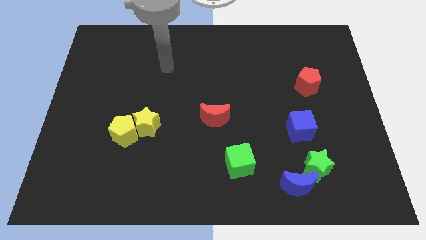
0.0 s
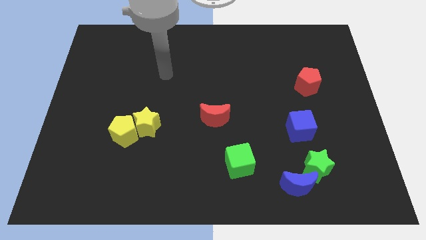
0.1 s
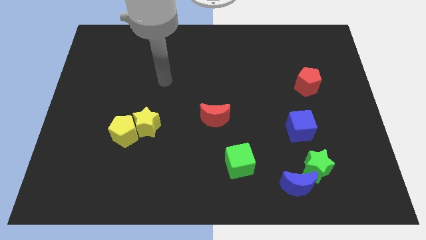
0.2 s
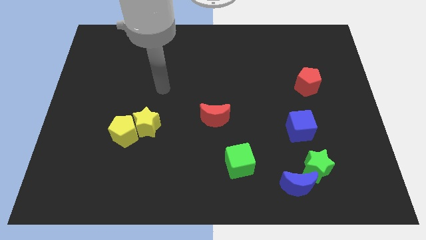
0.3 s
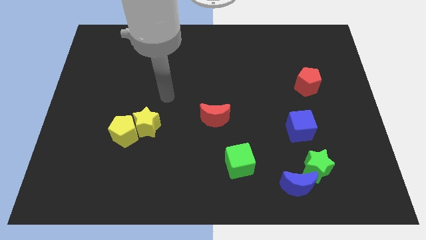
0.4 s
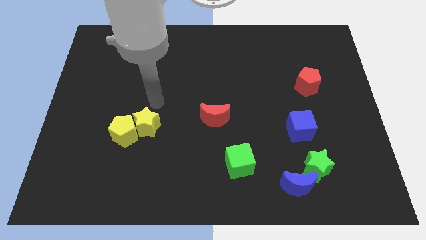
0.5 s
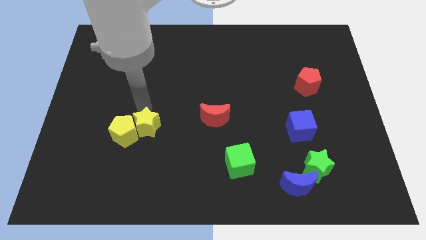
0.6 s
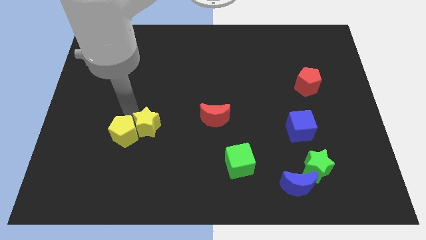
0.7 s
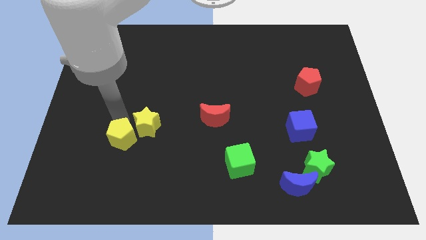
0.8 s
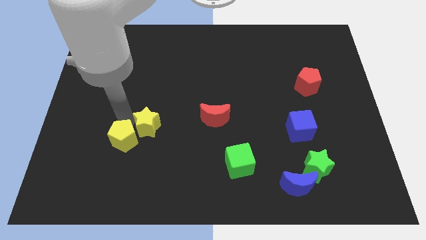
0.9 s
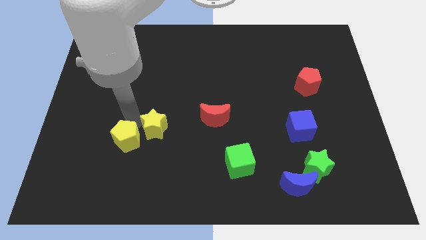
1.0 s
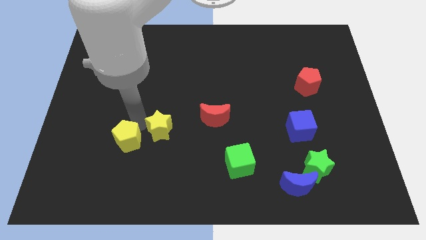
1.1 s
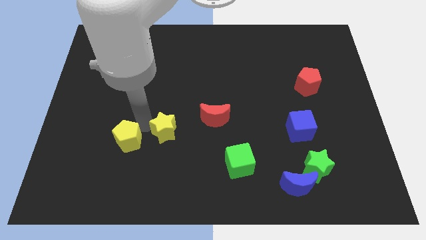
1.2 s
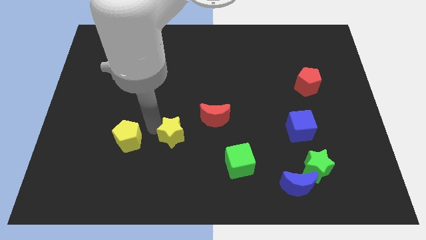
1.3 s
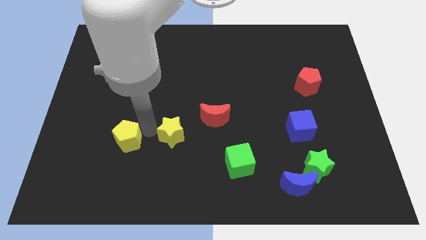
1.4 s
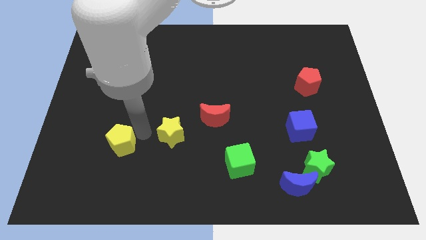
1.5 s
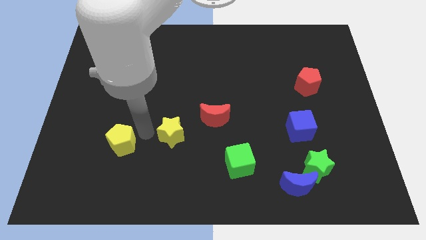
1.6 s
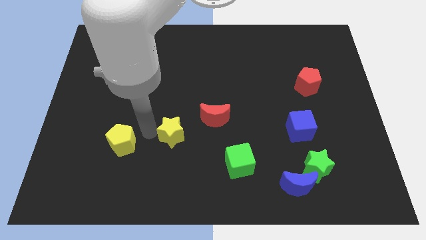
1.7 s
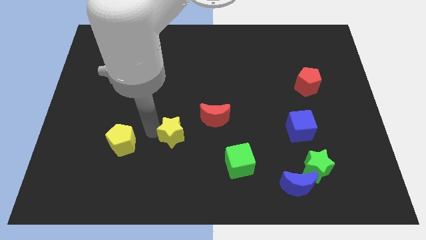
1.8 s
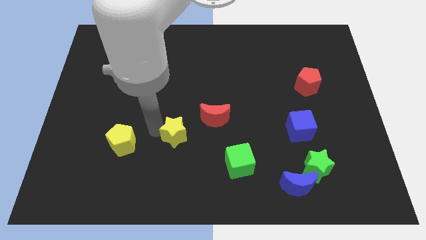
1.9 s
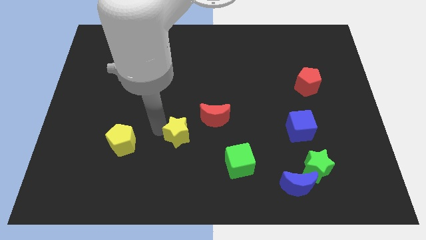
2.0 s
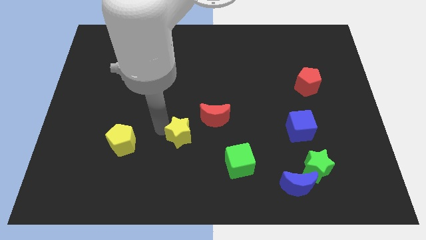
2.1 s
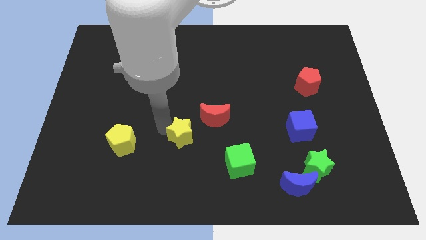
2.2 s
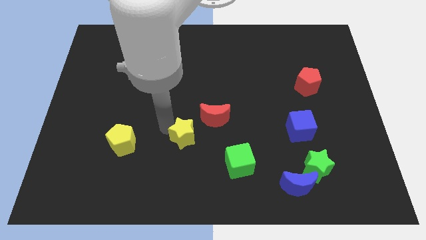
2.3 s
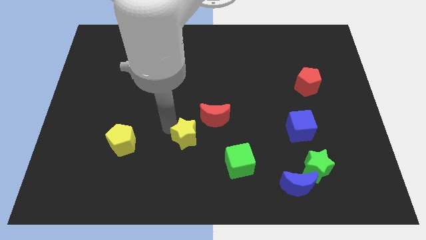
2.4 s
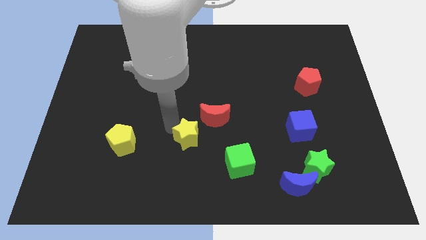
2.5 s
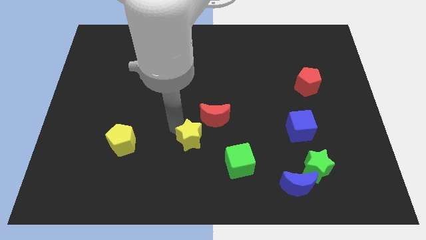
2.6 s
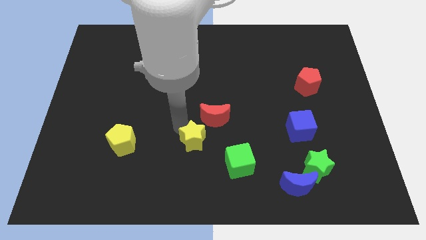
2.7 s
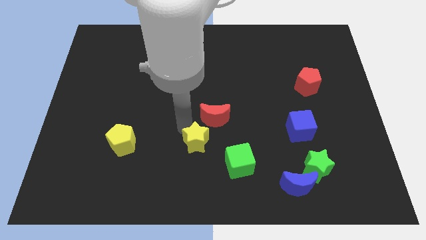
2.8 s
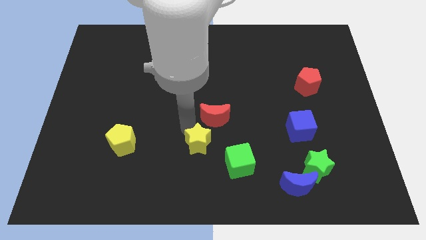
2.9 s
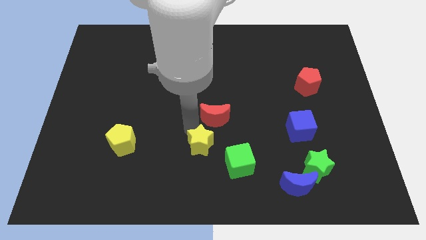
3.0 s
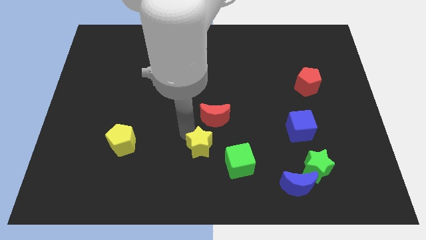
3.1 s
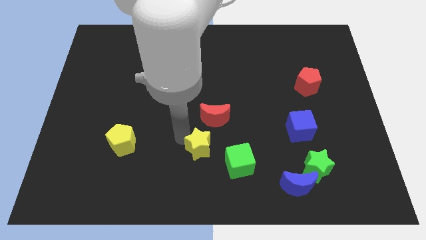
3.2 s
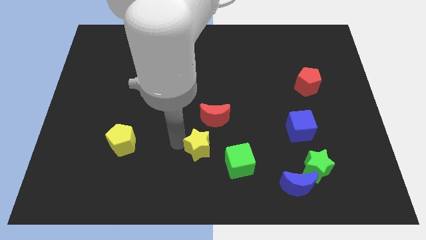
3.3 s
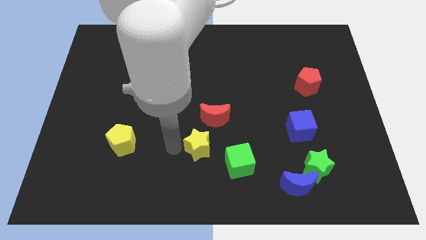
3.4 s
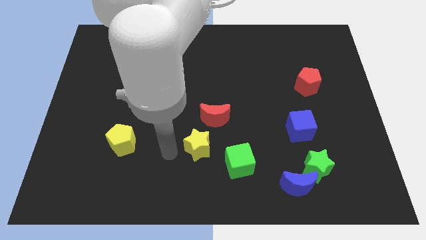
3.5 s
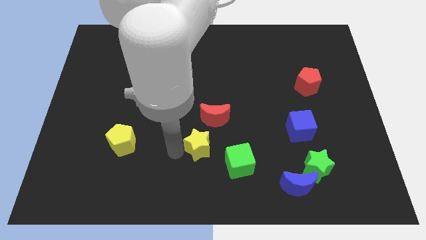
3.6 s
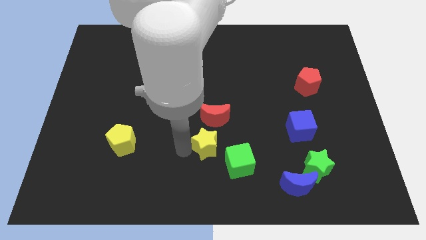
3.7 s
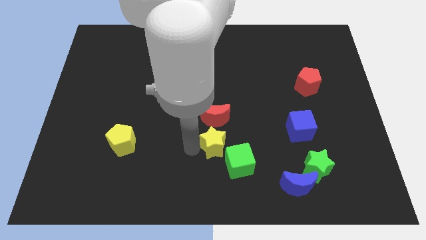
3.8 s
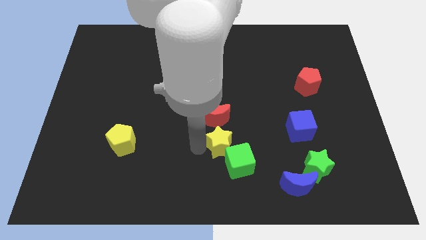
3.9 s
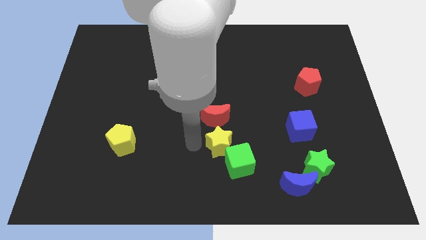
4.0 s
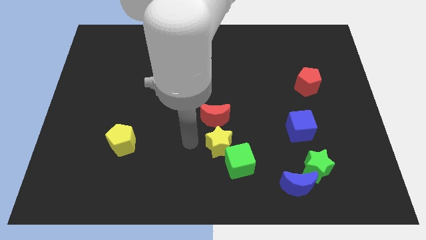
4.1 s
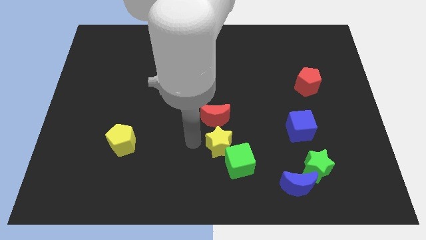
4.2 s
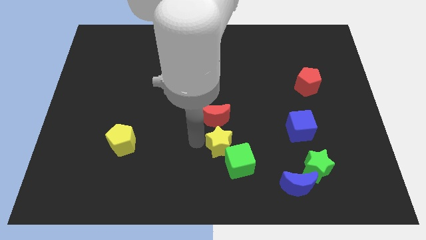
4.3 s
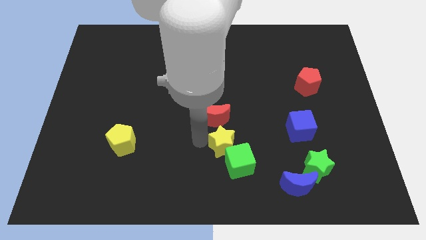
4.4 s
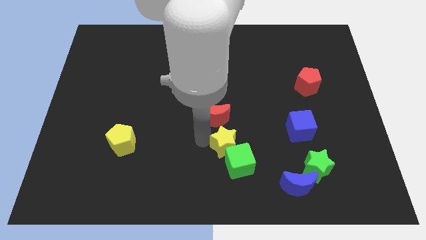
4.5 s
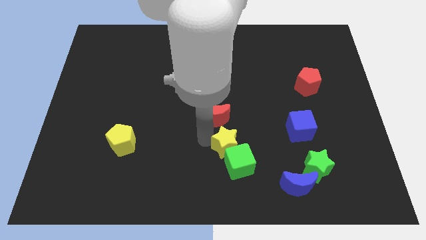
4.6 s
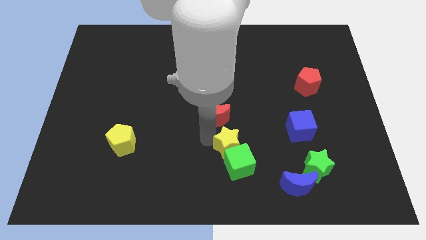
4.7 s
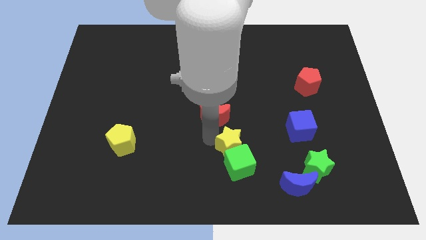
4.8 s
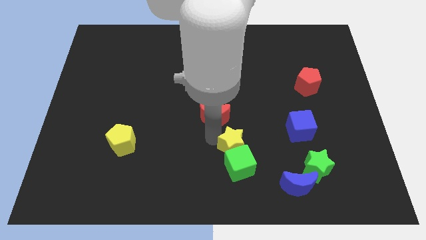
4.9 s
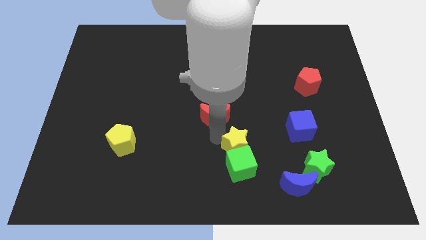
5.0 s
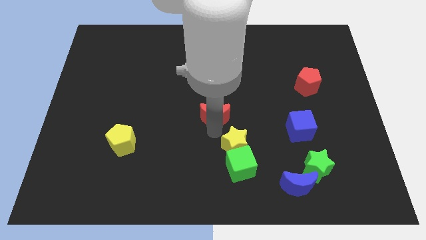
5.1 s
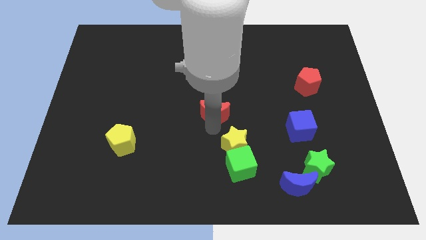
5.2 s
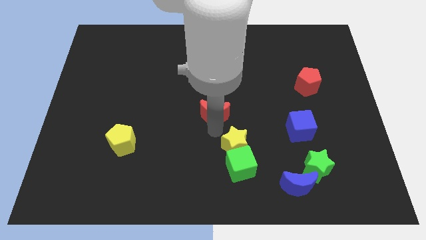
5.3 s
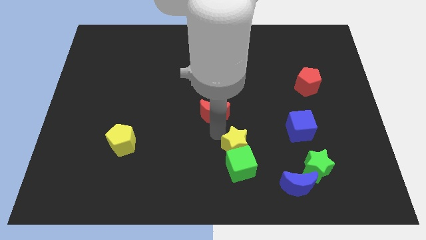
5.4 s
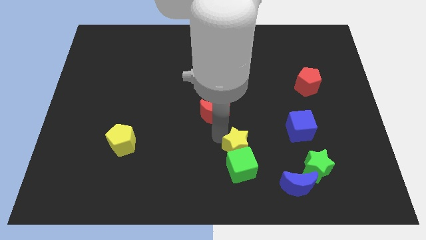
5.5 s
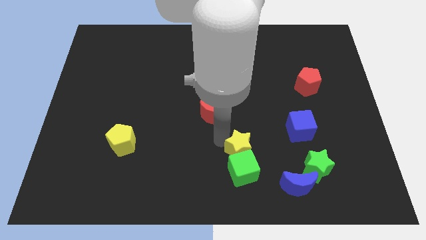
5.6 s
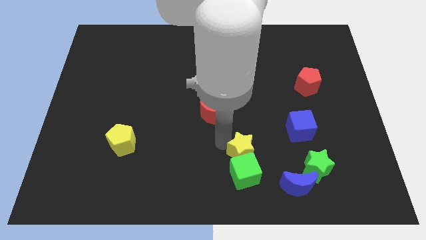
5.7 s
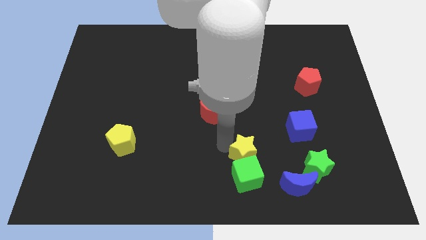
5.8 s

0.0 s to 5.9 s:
move the yellow star to the left of the green star

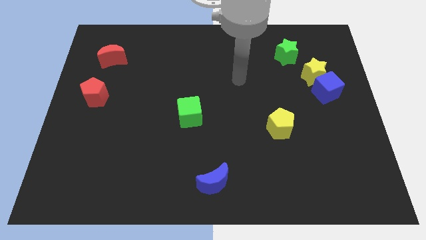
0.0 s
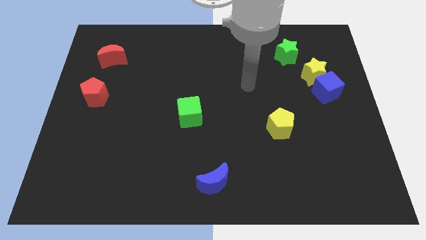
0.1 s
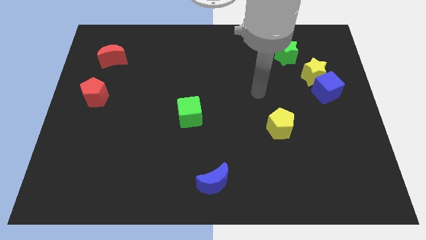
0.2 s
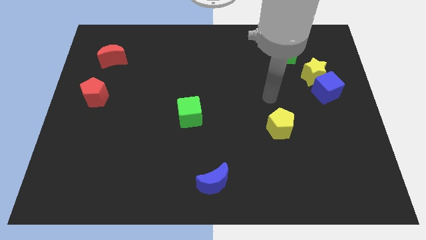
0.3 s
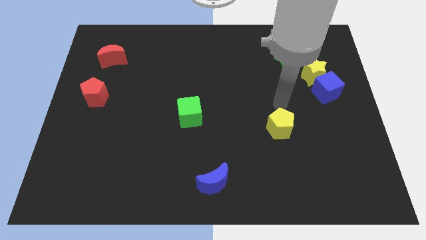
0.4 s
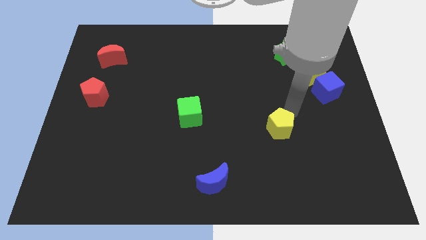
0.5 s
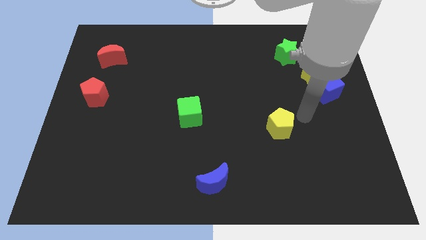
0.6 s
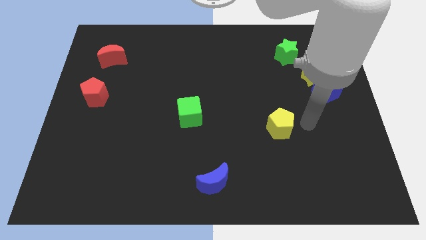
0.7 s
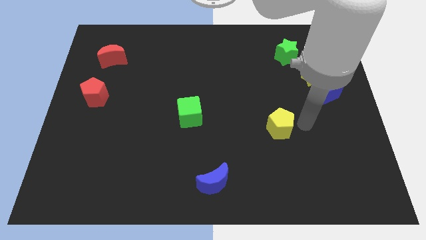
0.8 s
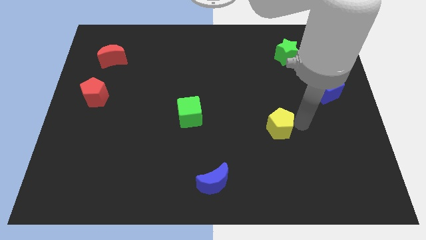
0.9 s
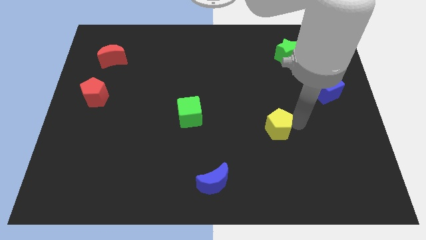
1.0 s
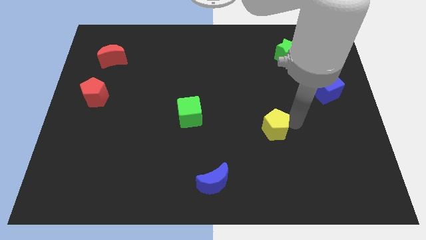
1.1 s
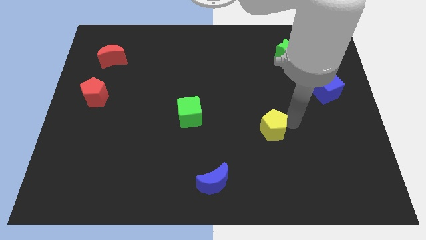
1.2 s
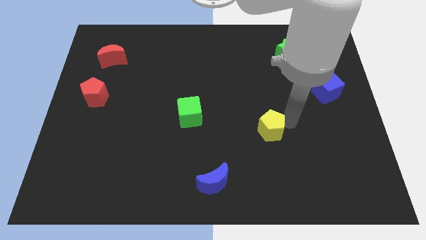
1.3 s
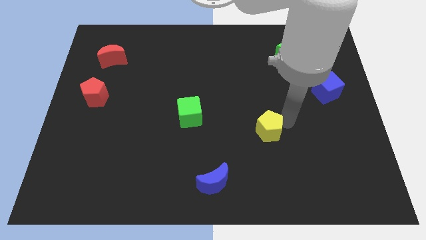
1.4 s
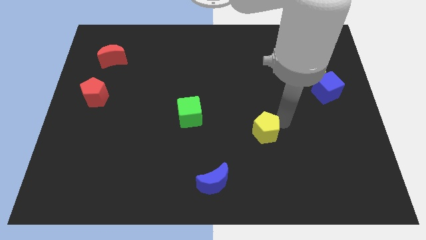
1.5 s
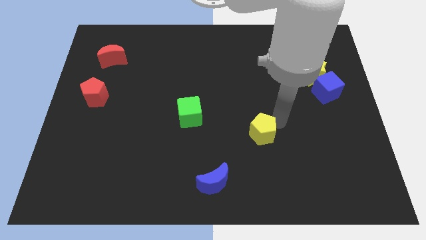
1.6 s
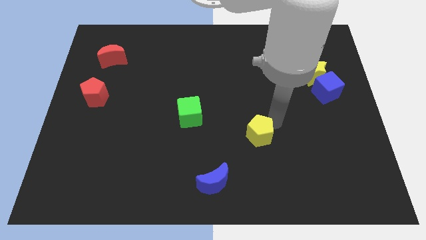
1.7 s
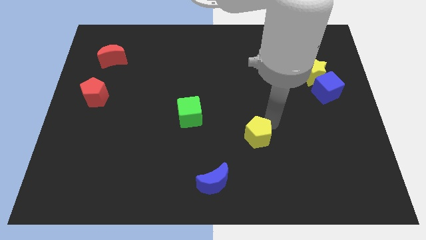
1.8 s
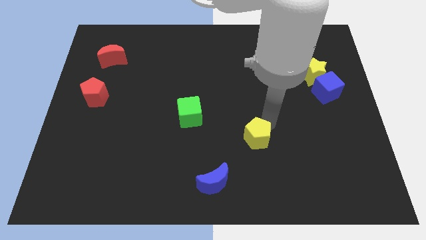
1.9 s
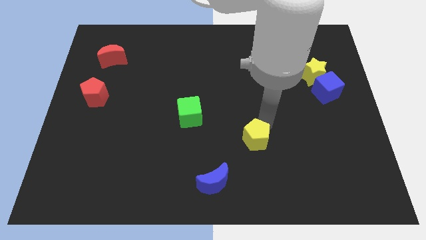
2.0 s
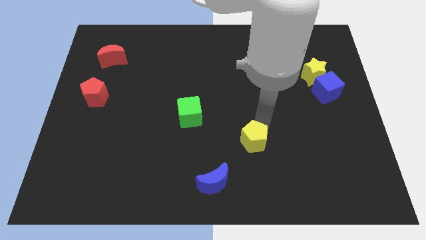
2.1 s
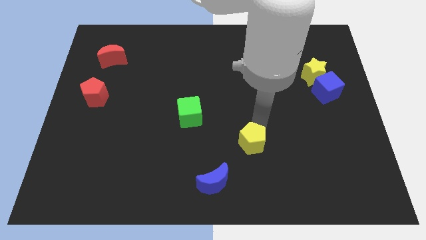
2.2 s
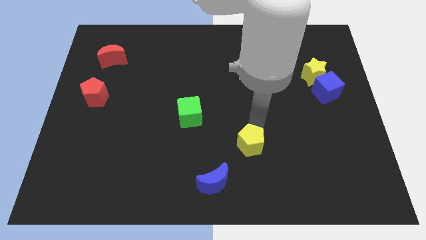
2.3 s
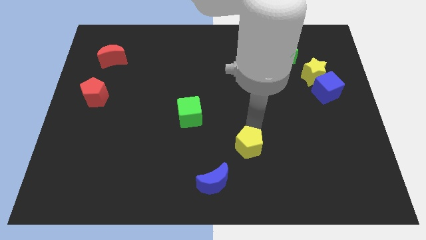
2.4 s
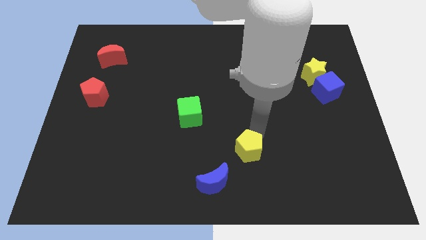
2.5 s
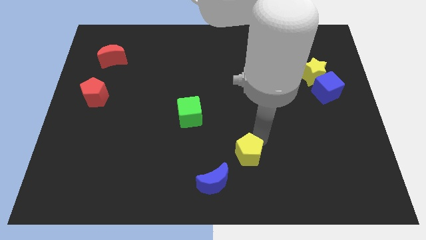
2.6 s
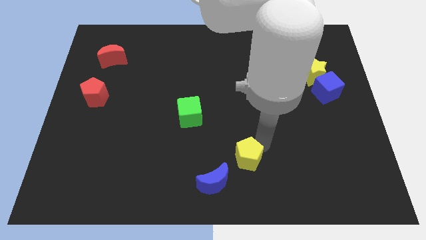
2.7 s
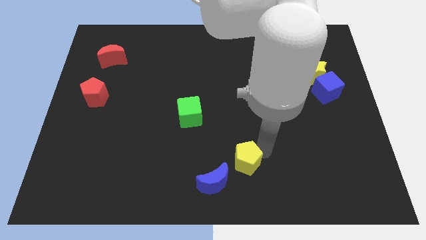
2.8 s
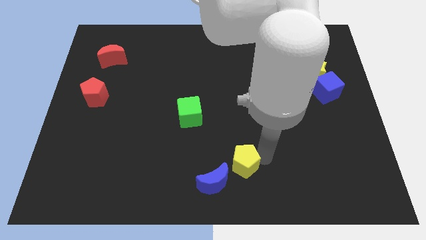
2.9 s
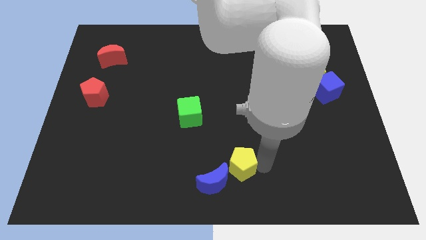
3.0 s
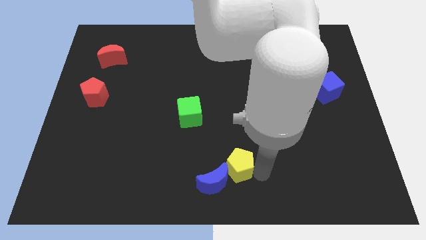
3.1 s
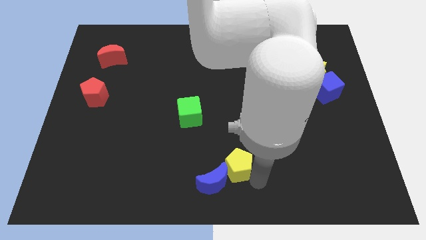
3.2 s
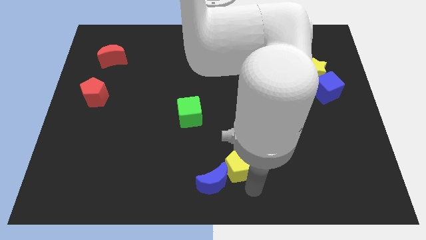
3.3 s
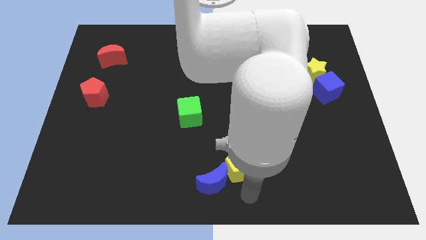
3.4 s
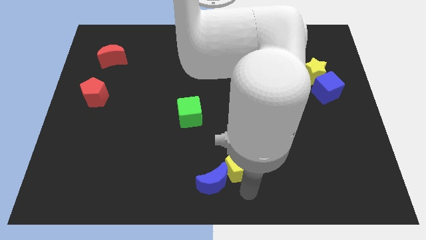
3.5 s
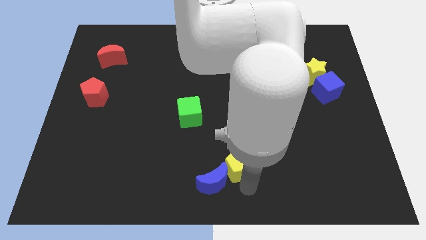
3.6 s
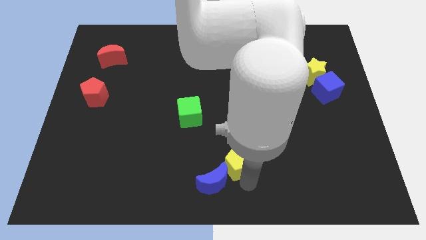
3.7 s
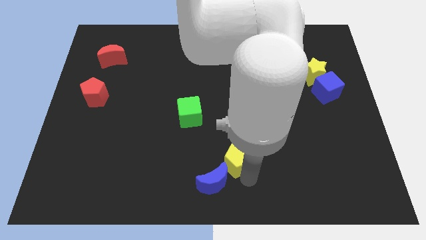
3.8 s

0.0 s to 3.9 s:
push the yellow pentagon to the top of the blue moon
